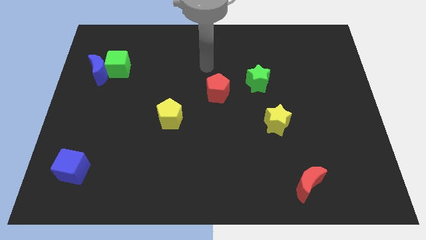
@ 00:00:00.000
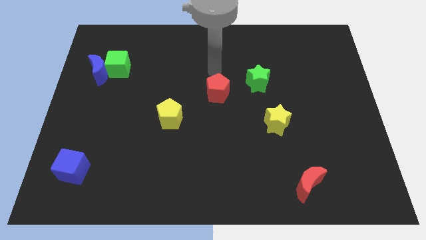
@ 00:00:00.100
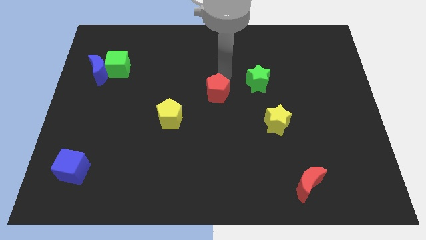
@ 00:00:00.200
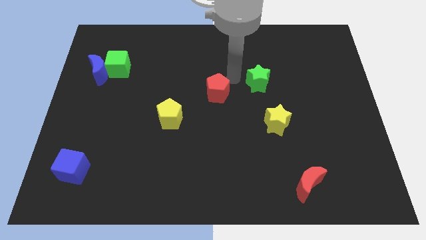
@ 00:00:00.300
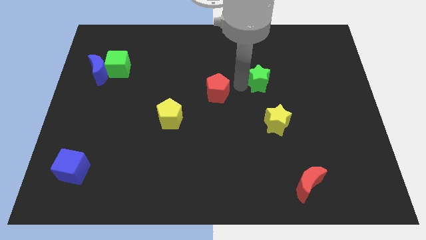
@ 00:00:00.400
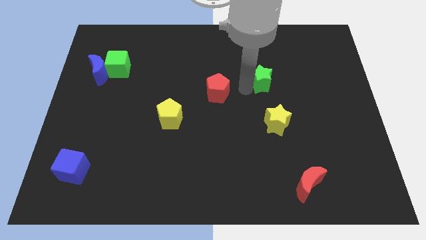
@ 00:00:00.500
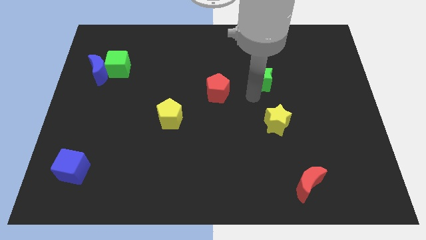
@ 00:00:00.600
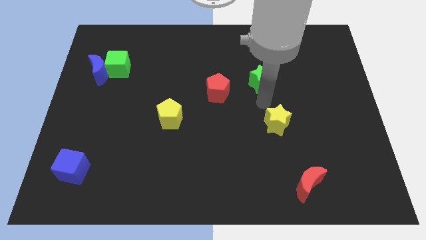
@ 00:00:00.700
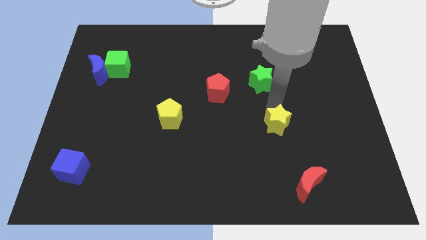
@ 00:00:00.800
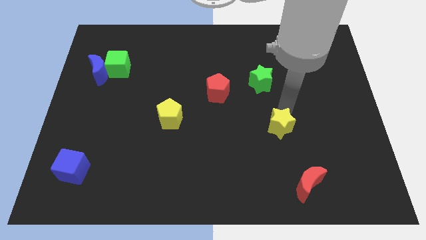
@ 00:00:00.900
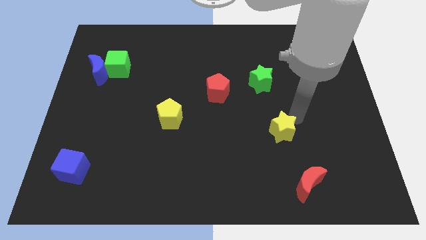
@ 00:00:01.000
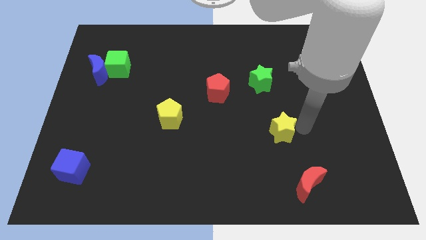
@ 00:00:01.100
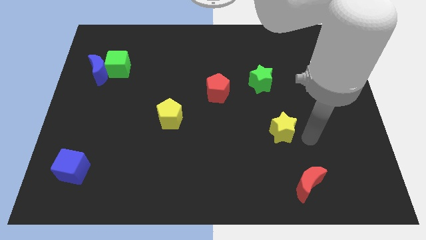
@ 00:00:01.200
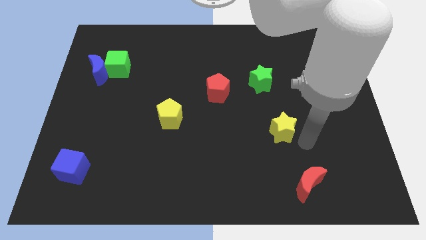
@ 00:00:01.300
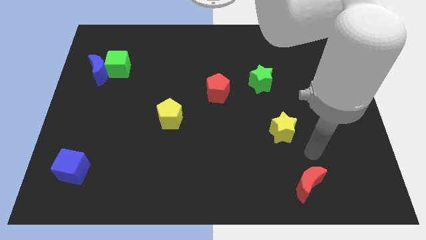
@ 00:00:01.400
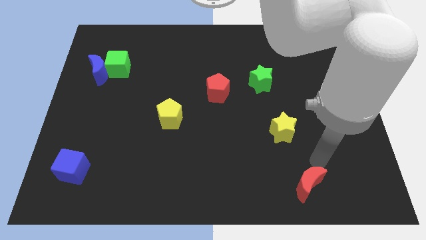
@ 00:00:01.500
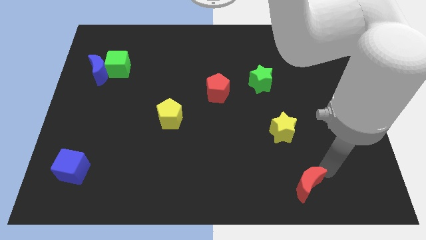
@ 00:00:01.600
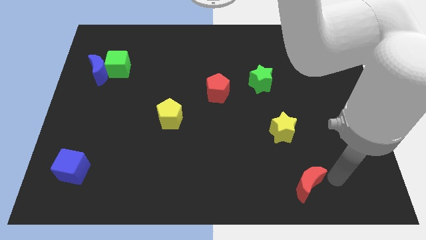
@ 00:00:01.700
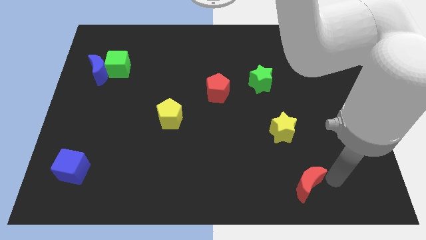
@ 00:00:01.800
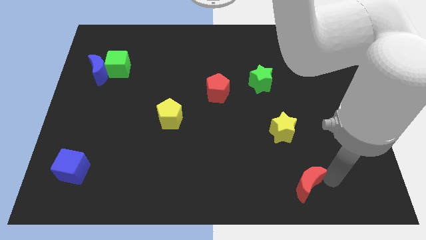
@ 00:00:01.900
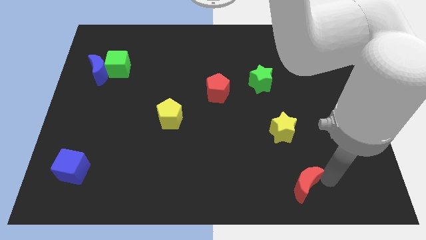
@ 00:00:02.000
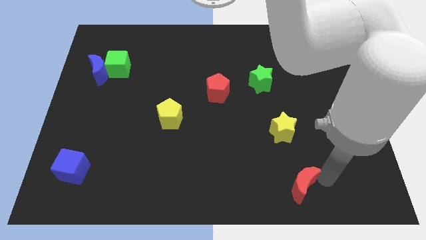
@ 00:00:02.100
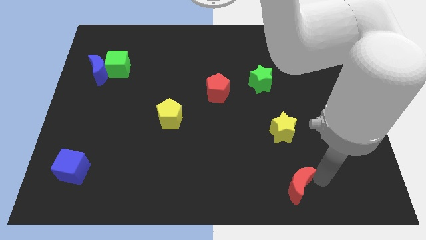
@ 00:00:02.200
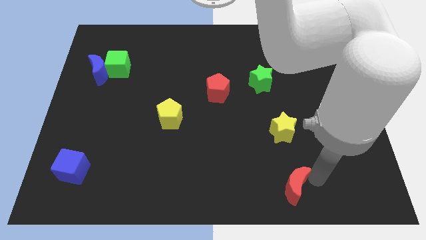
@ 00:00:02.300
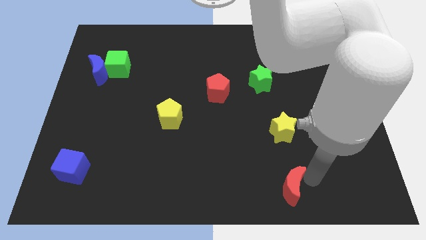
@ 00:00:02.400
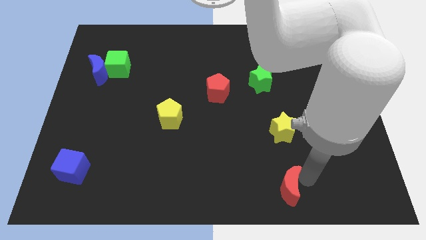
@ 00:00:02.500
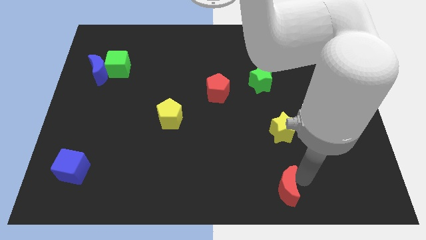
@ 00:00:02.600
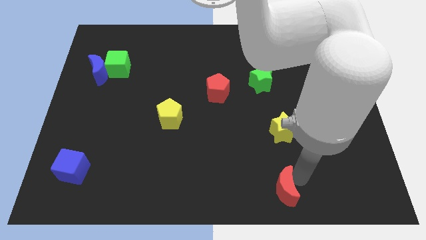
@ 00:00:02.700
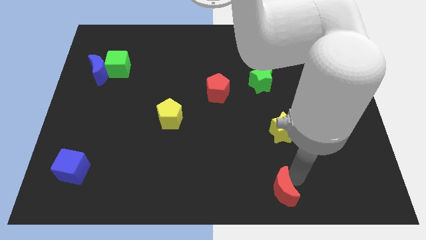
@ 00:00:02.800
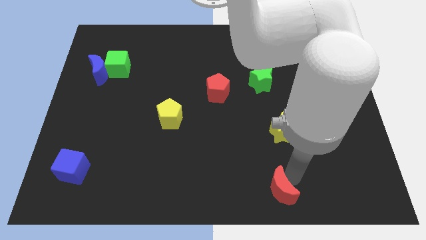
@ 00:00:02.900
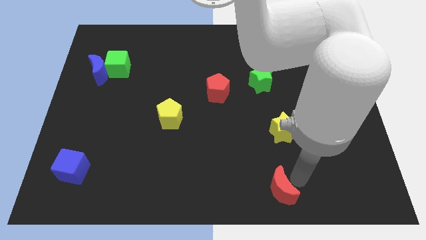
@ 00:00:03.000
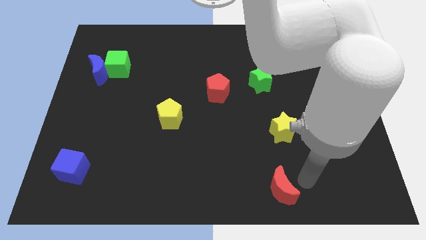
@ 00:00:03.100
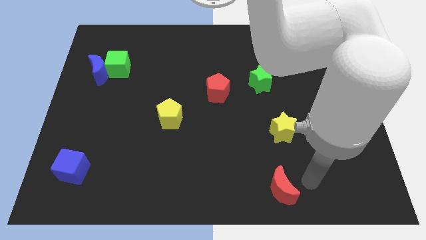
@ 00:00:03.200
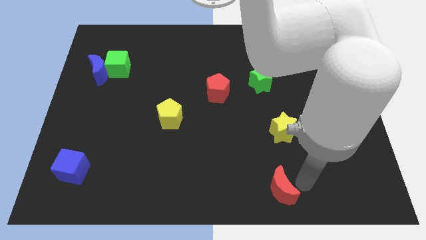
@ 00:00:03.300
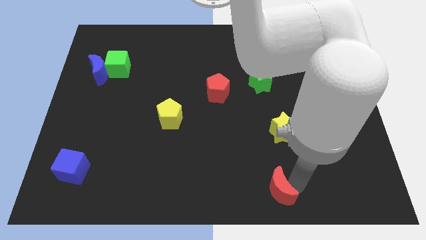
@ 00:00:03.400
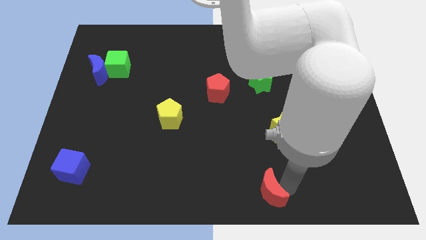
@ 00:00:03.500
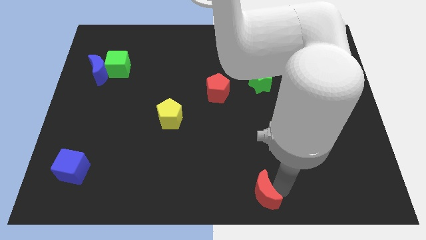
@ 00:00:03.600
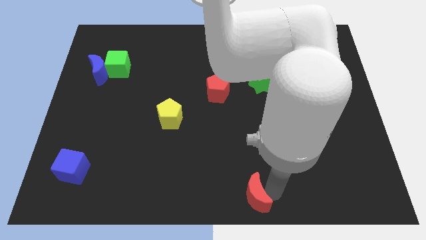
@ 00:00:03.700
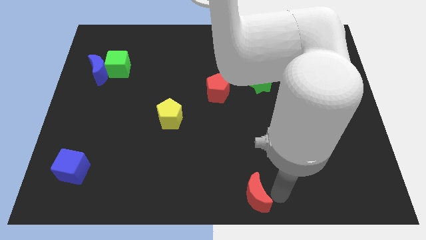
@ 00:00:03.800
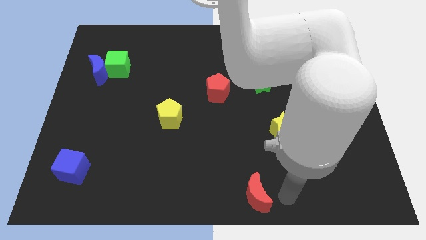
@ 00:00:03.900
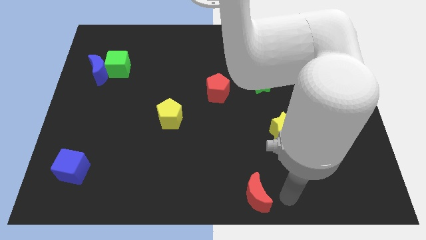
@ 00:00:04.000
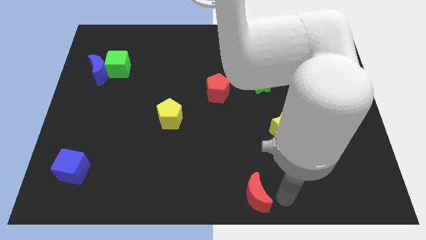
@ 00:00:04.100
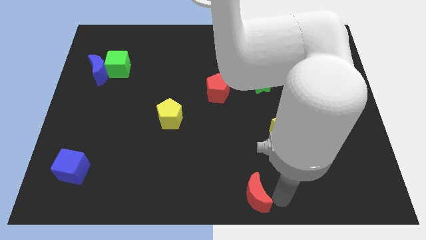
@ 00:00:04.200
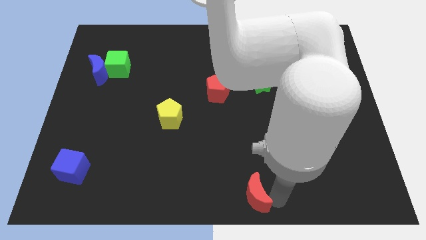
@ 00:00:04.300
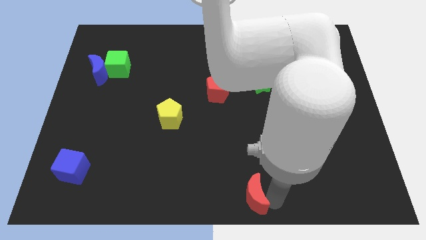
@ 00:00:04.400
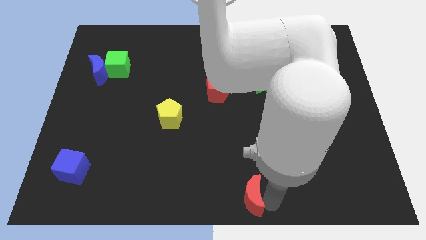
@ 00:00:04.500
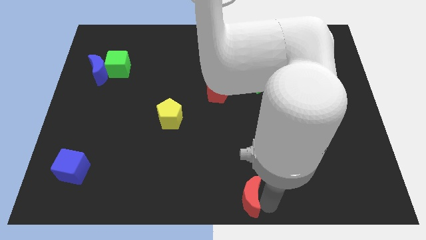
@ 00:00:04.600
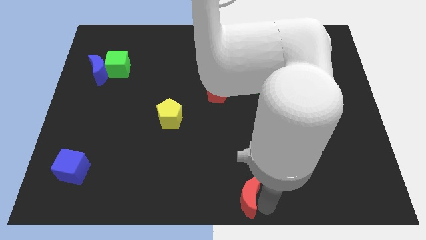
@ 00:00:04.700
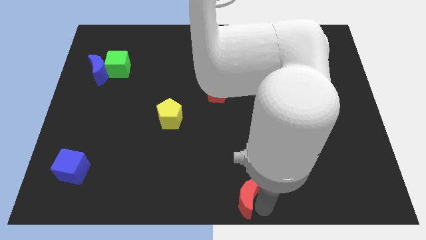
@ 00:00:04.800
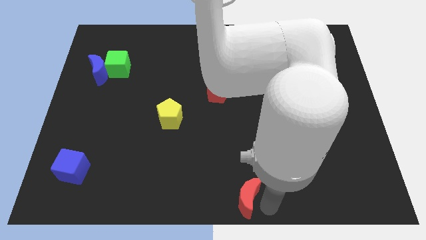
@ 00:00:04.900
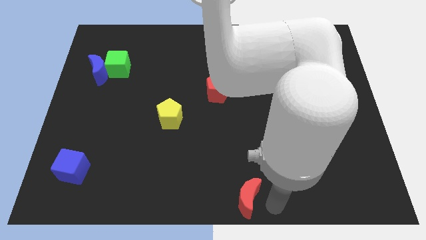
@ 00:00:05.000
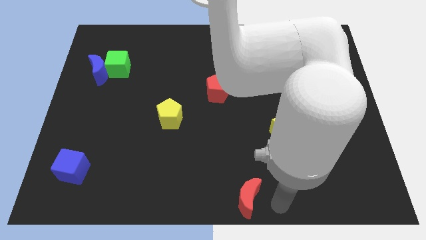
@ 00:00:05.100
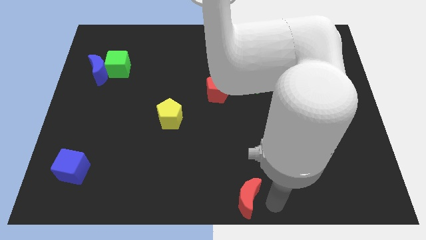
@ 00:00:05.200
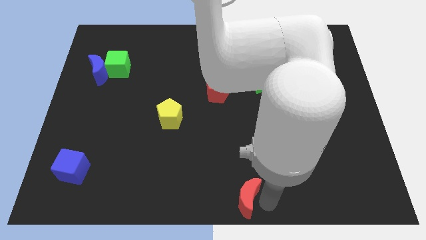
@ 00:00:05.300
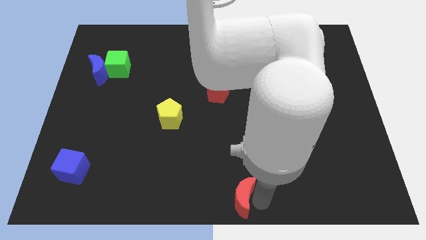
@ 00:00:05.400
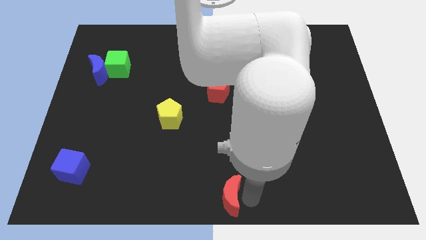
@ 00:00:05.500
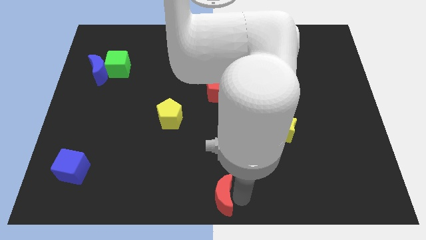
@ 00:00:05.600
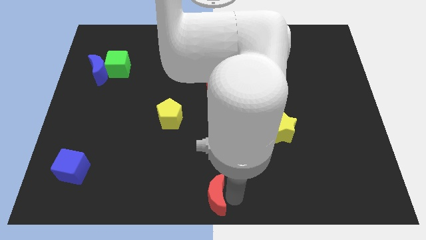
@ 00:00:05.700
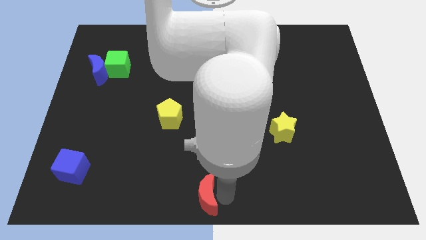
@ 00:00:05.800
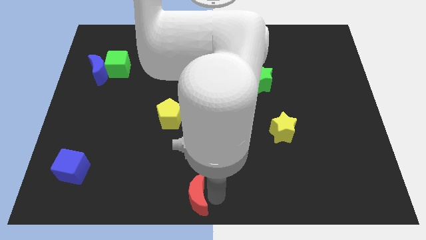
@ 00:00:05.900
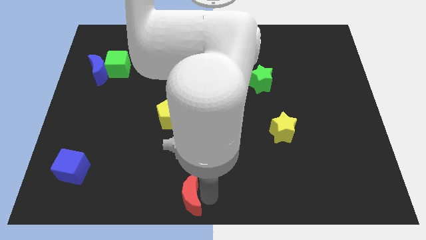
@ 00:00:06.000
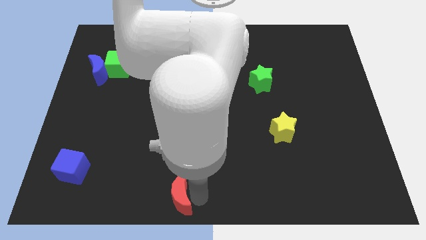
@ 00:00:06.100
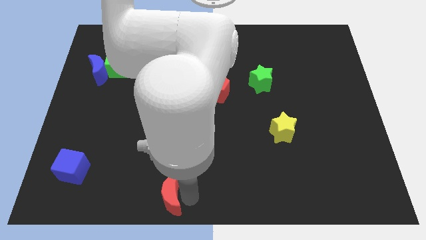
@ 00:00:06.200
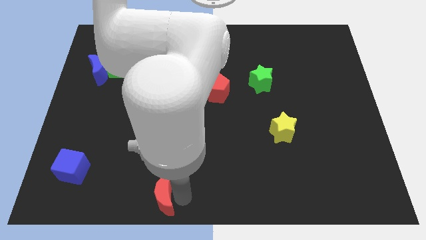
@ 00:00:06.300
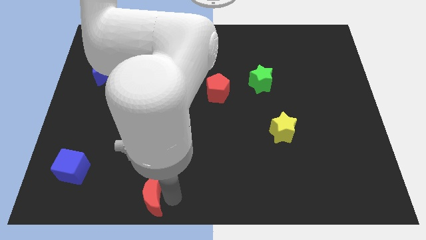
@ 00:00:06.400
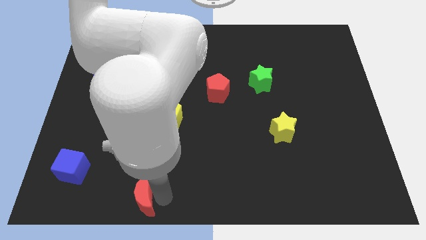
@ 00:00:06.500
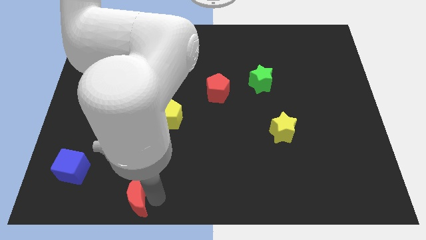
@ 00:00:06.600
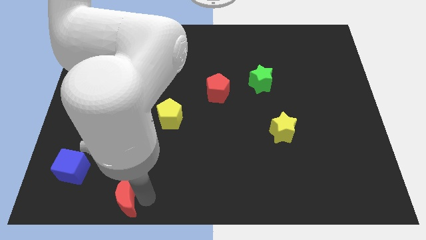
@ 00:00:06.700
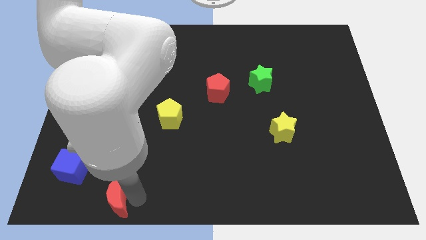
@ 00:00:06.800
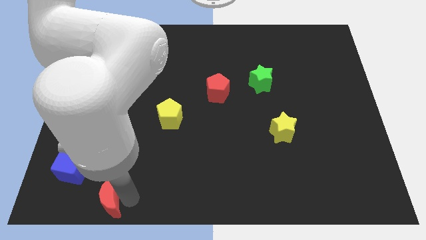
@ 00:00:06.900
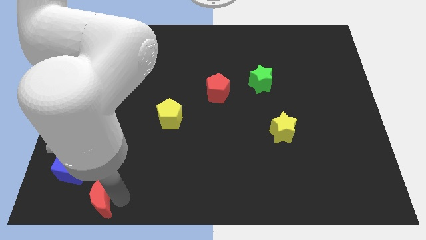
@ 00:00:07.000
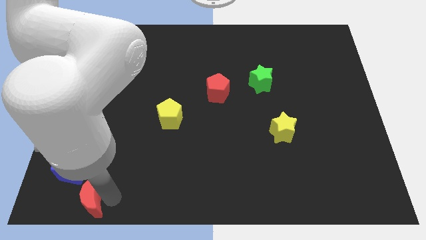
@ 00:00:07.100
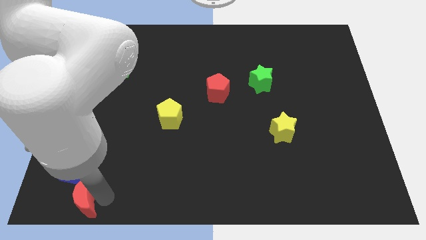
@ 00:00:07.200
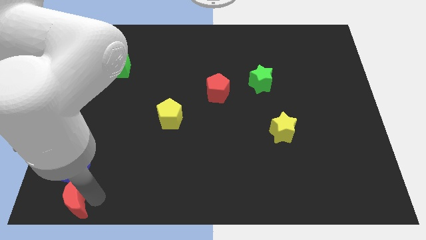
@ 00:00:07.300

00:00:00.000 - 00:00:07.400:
put the red moon to the bottom left of the board
